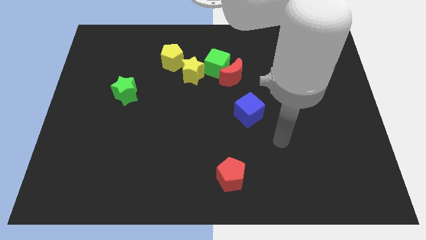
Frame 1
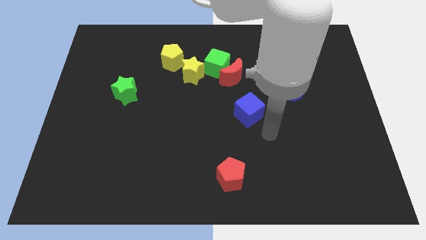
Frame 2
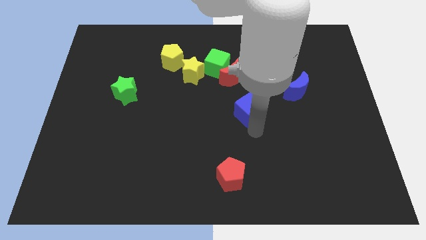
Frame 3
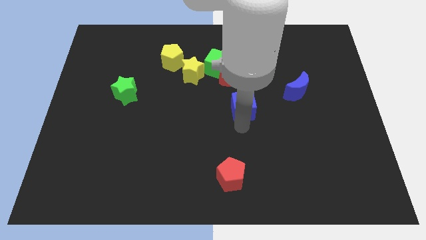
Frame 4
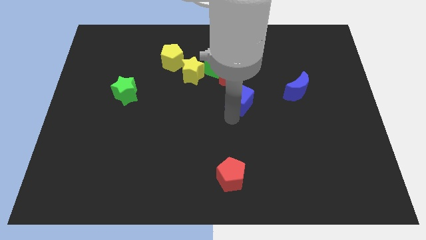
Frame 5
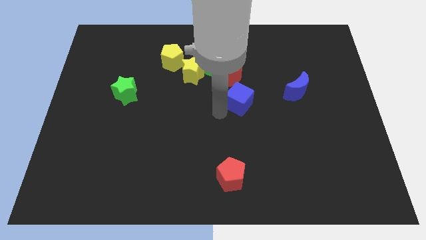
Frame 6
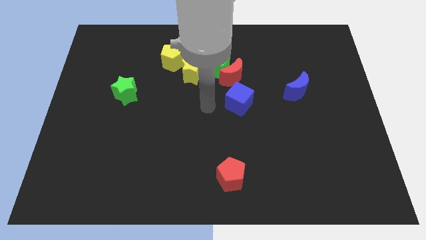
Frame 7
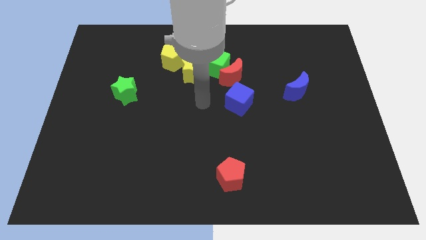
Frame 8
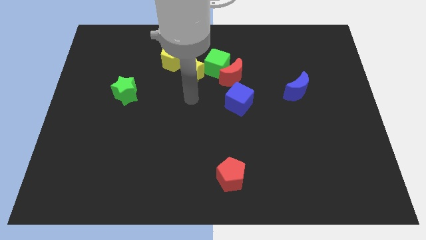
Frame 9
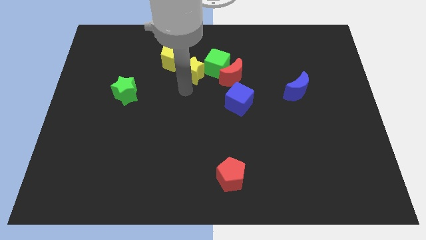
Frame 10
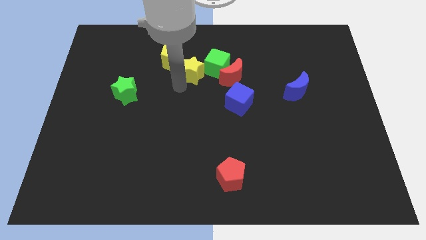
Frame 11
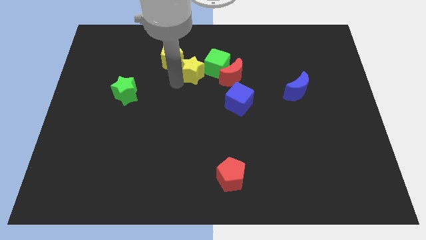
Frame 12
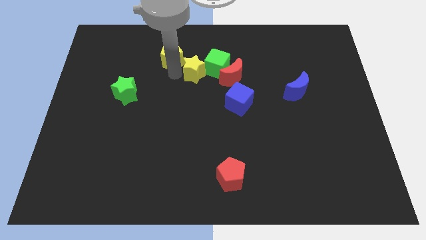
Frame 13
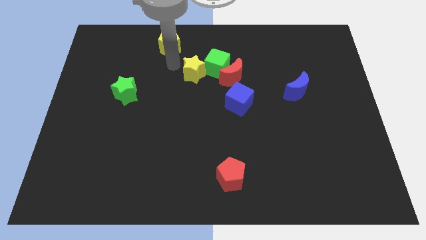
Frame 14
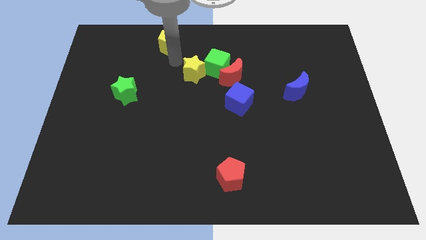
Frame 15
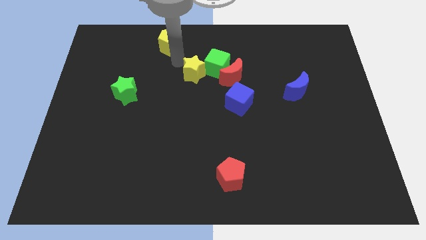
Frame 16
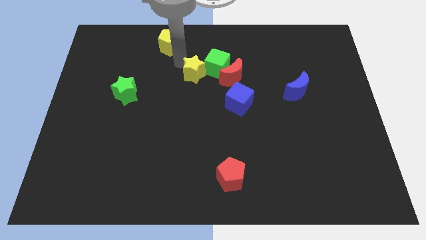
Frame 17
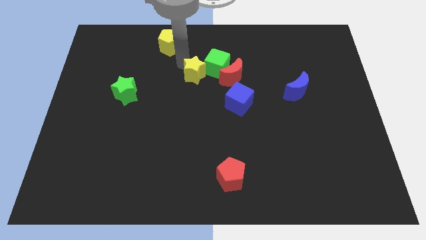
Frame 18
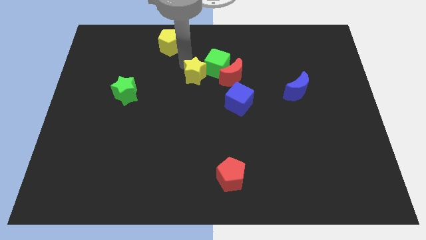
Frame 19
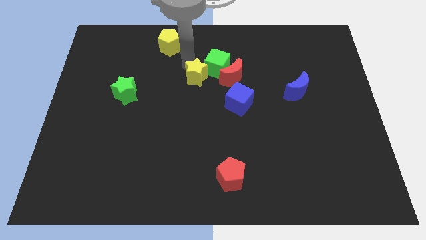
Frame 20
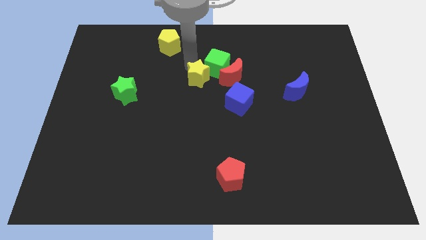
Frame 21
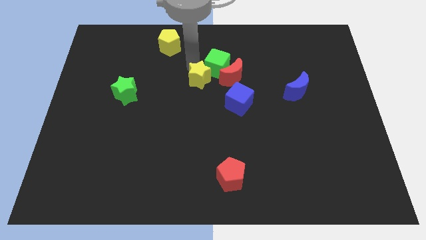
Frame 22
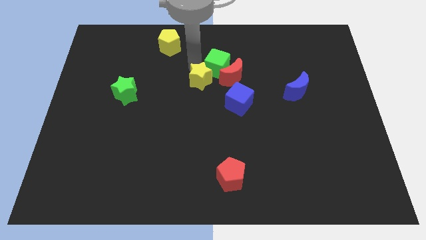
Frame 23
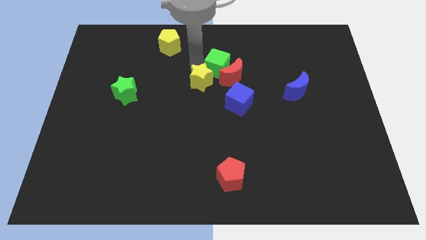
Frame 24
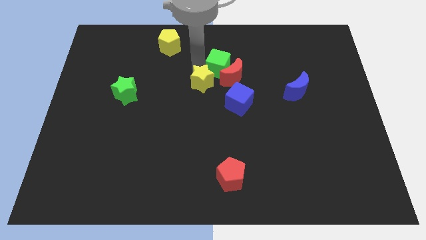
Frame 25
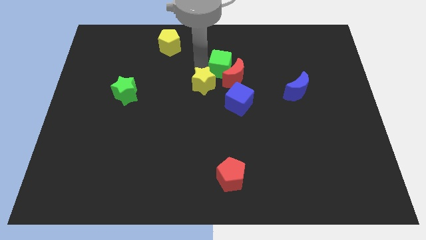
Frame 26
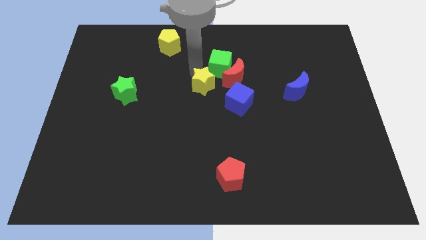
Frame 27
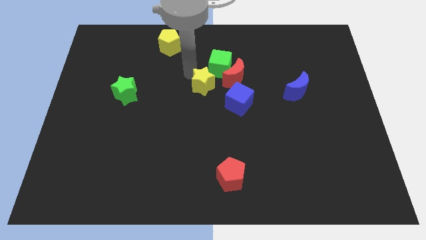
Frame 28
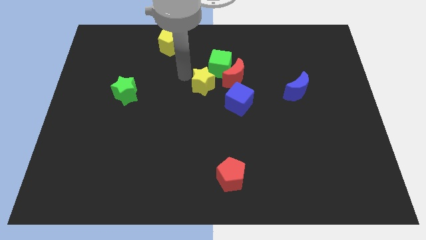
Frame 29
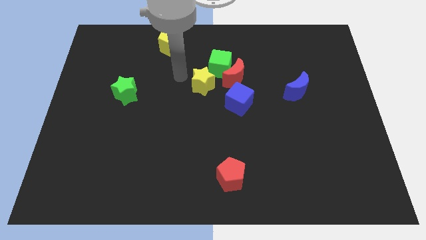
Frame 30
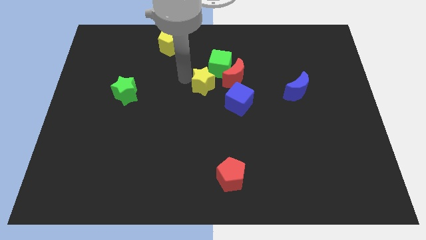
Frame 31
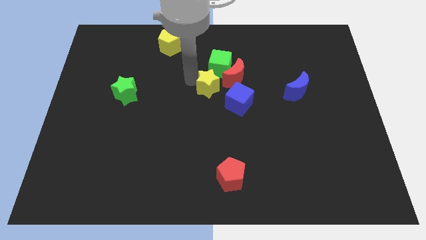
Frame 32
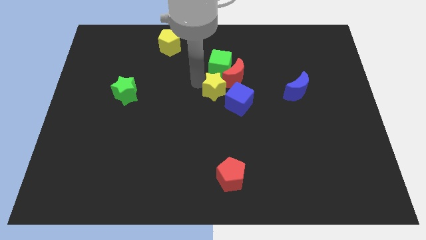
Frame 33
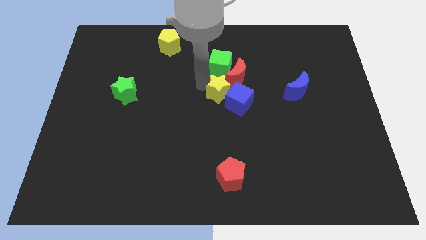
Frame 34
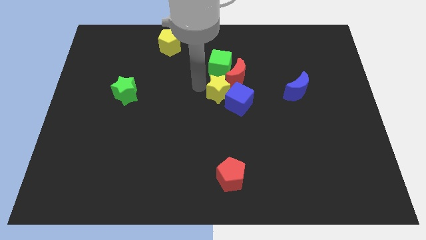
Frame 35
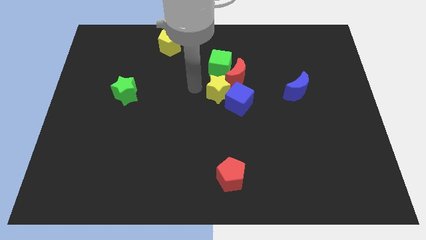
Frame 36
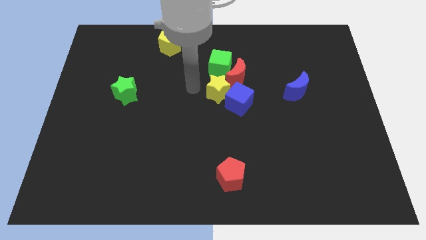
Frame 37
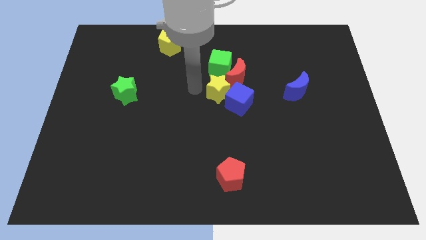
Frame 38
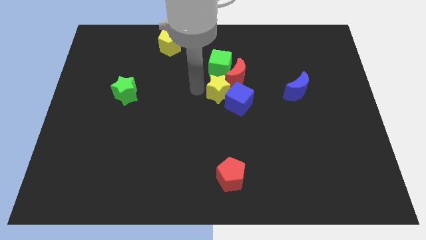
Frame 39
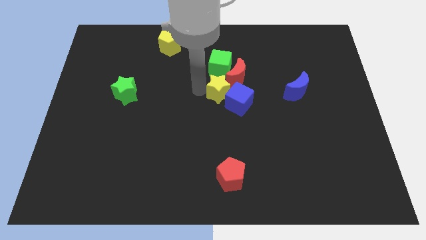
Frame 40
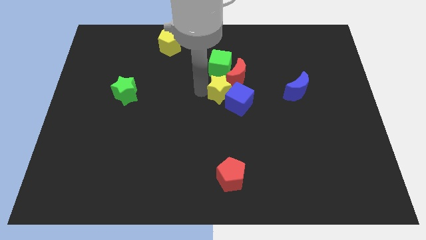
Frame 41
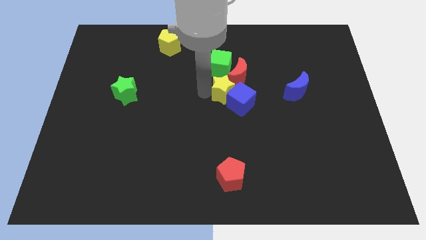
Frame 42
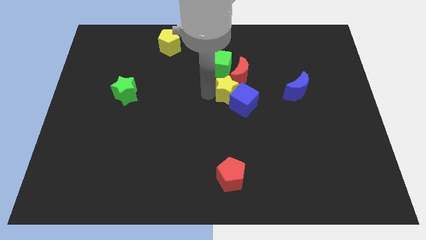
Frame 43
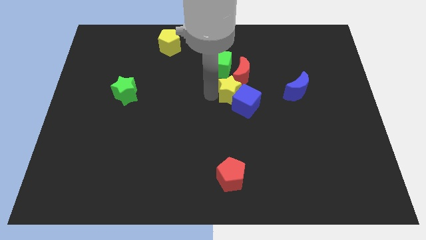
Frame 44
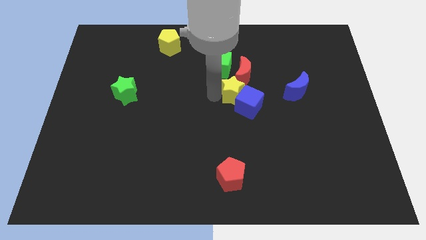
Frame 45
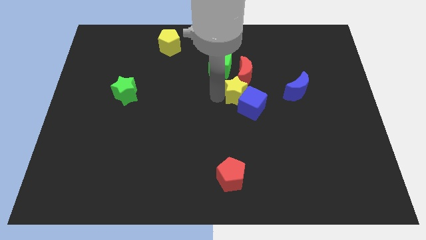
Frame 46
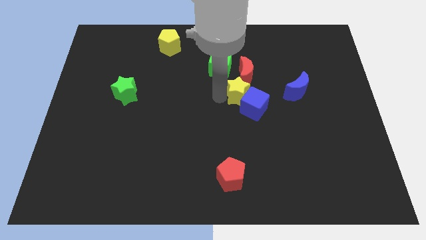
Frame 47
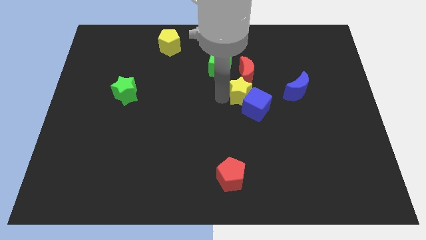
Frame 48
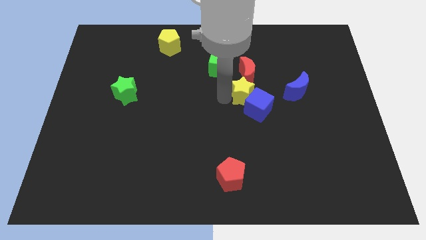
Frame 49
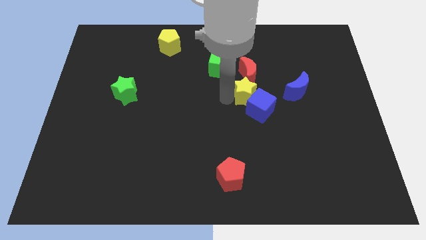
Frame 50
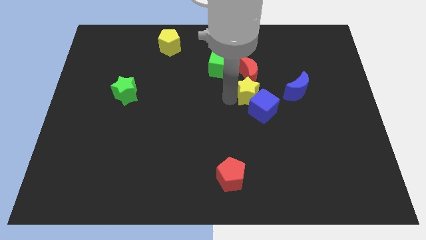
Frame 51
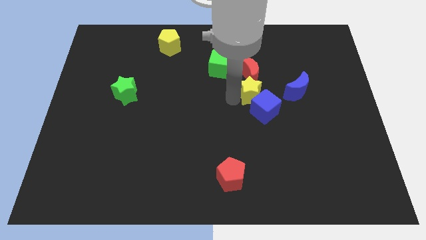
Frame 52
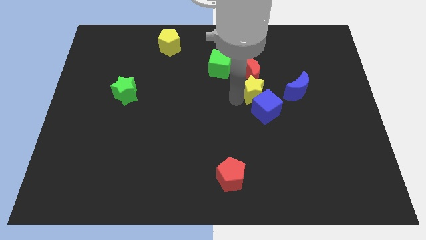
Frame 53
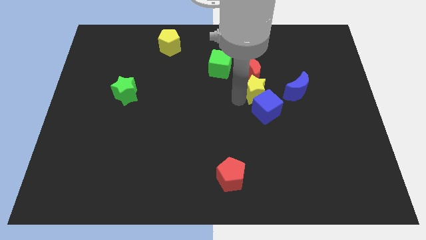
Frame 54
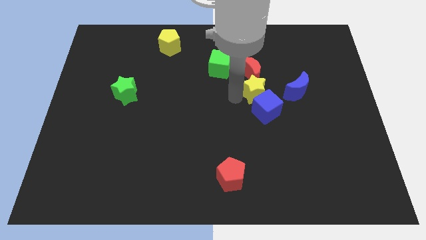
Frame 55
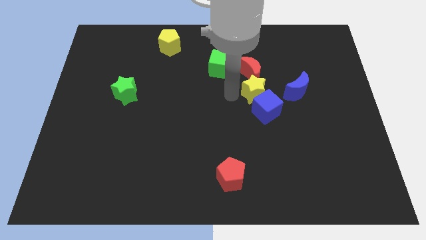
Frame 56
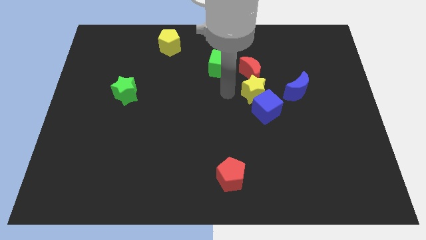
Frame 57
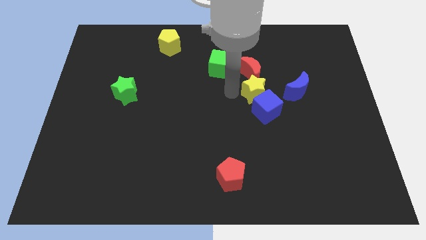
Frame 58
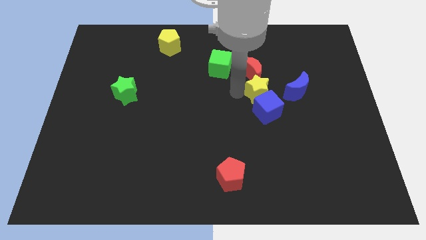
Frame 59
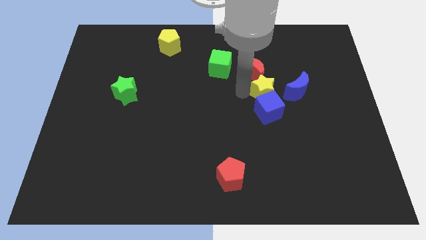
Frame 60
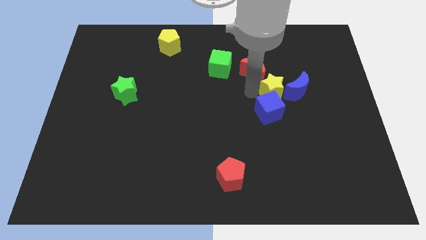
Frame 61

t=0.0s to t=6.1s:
slide the yellow star to the blue moon

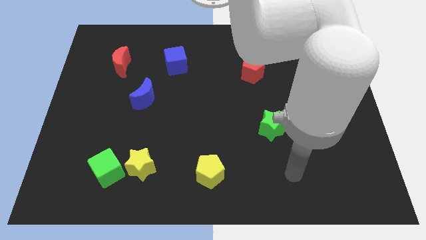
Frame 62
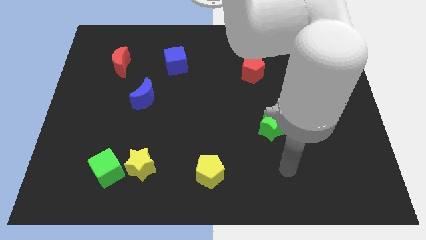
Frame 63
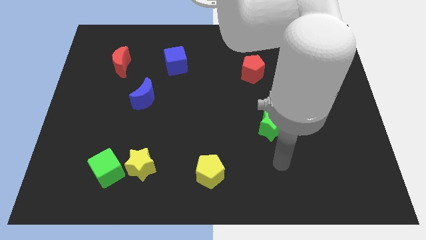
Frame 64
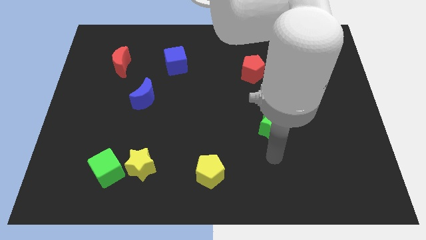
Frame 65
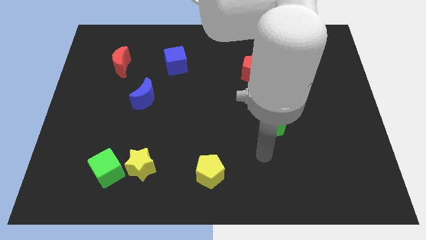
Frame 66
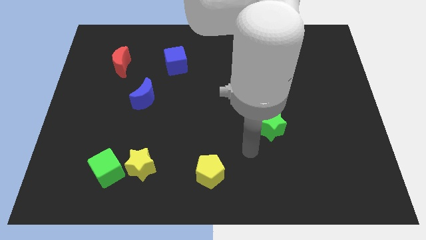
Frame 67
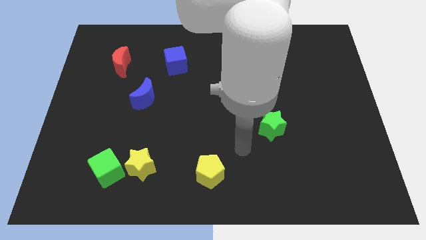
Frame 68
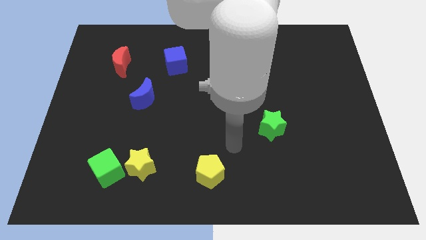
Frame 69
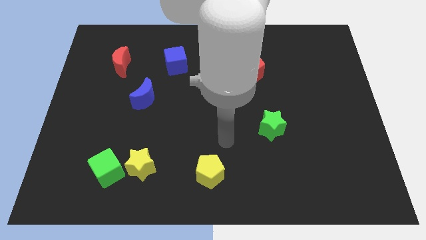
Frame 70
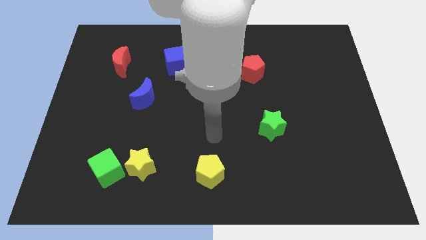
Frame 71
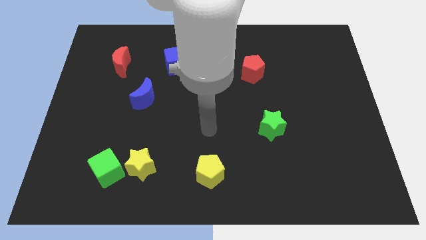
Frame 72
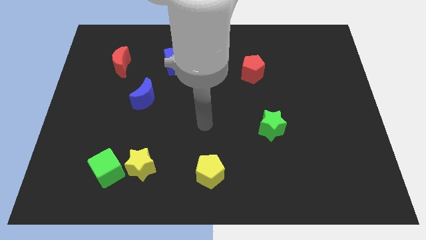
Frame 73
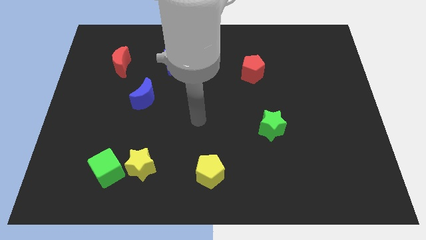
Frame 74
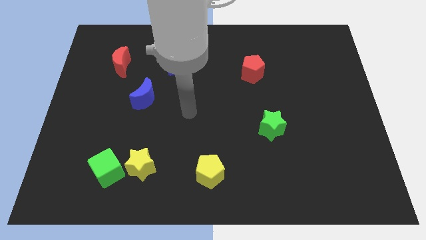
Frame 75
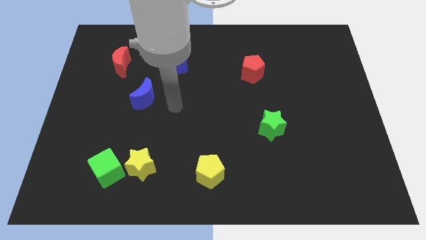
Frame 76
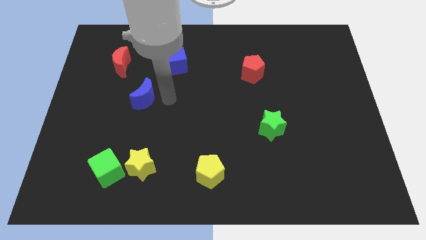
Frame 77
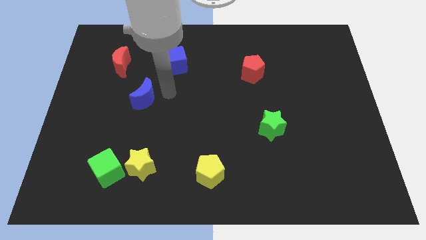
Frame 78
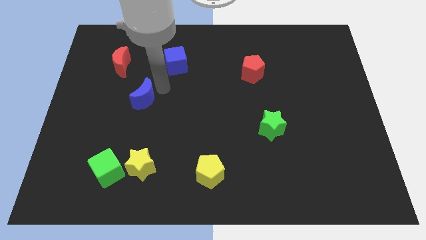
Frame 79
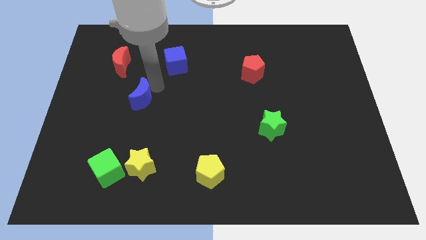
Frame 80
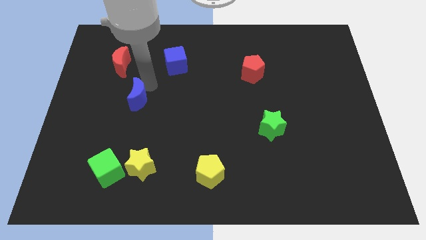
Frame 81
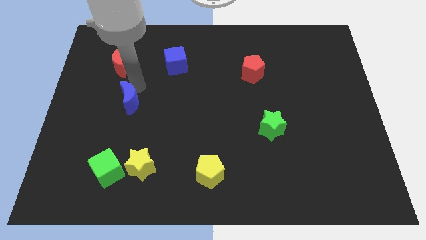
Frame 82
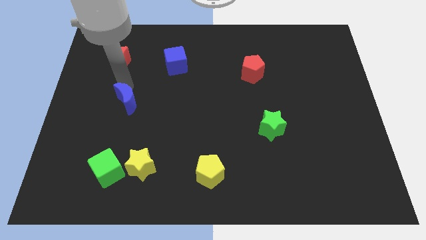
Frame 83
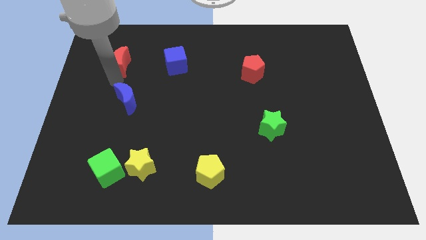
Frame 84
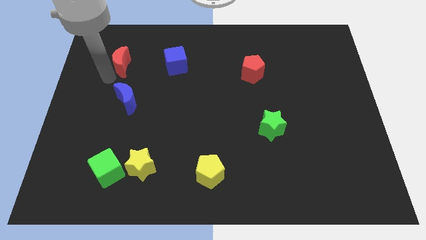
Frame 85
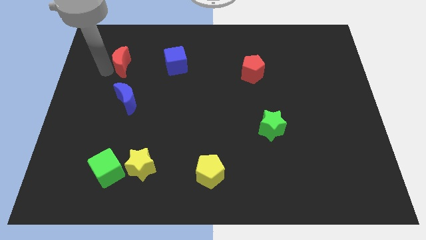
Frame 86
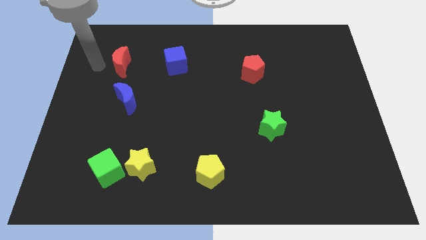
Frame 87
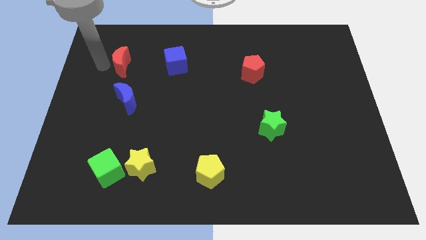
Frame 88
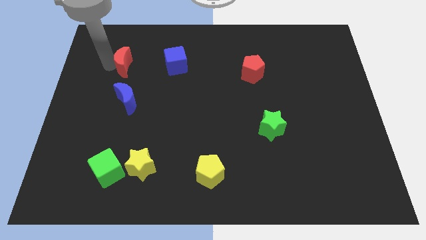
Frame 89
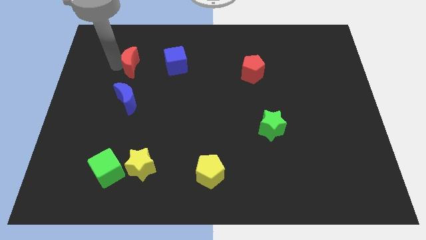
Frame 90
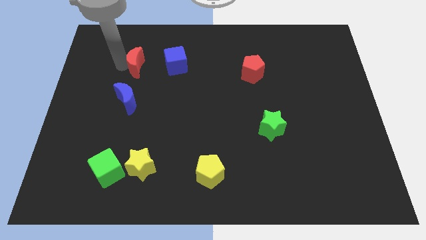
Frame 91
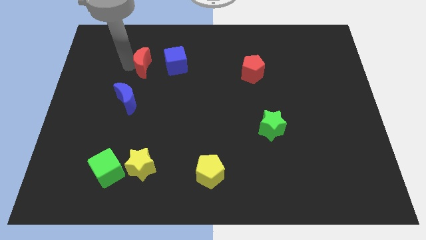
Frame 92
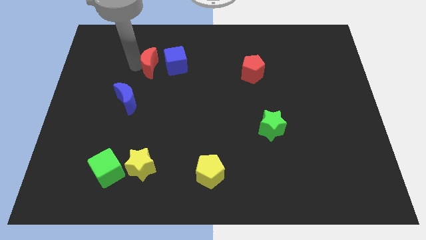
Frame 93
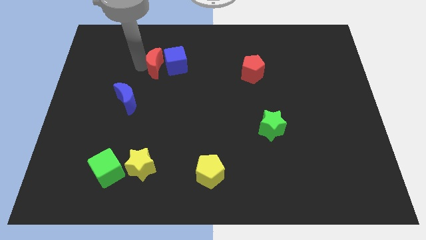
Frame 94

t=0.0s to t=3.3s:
put the red moon towards the blue cube
